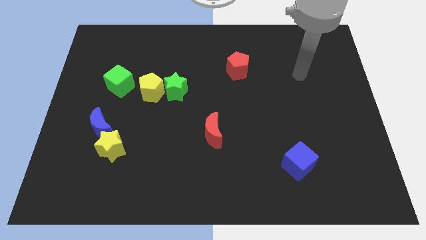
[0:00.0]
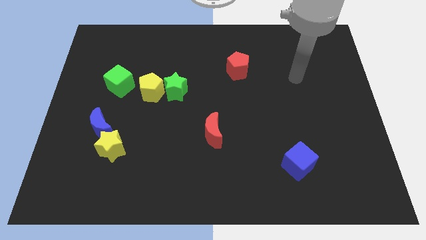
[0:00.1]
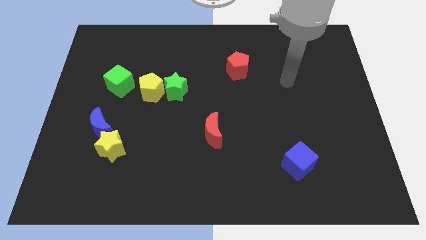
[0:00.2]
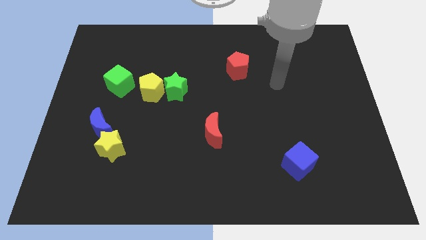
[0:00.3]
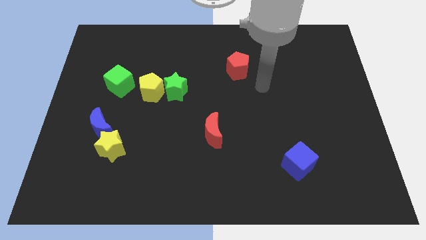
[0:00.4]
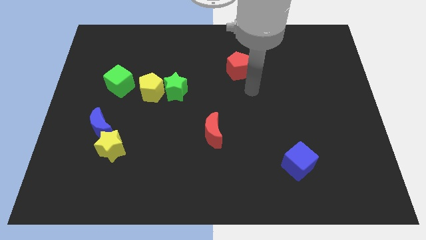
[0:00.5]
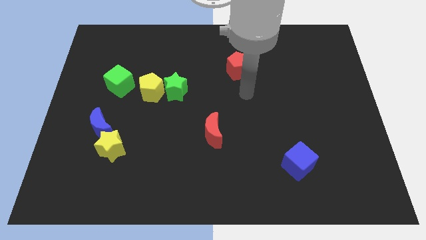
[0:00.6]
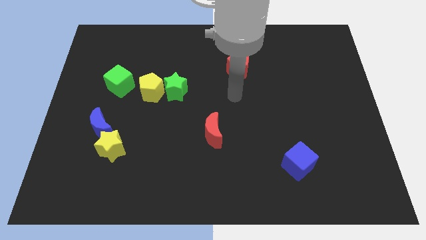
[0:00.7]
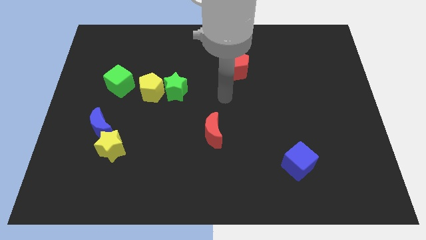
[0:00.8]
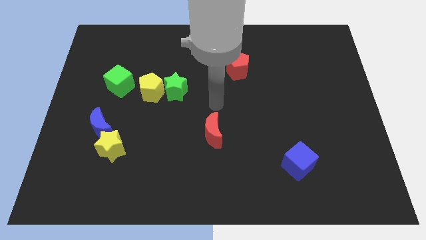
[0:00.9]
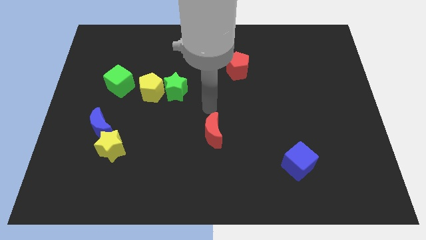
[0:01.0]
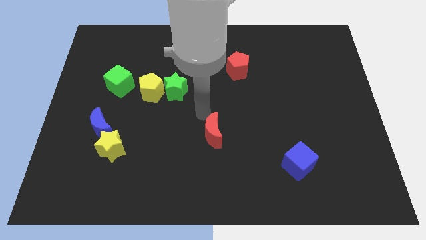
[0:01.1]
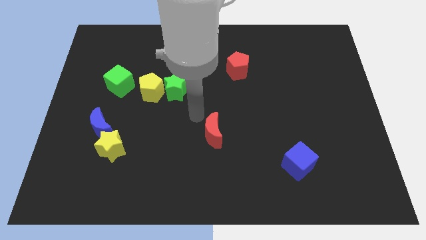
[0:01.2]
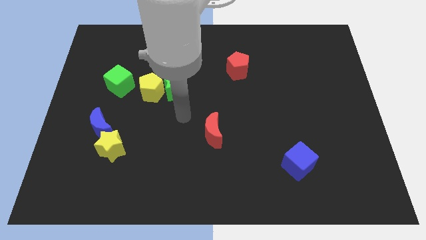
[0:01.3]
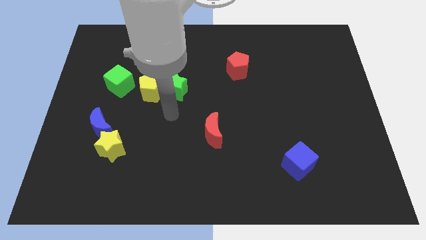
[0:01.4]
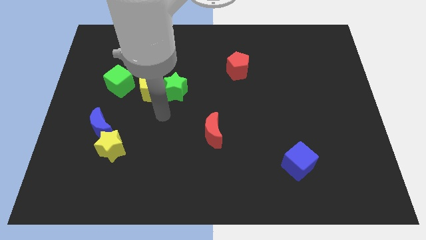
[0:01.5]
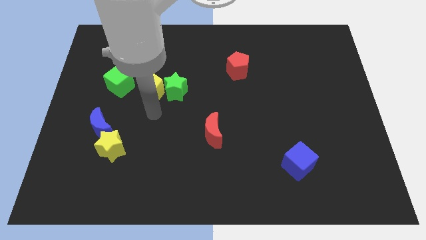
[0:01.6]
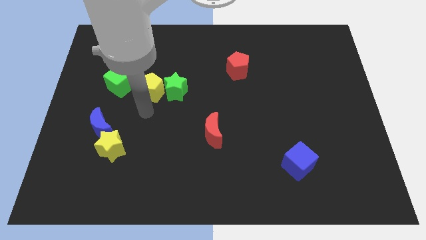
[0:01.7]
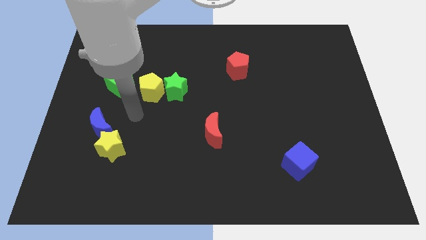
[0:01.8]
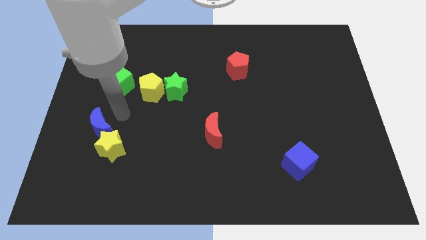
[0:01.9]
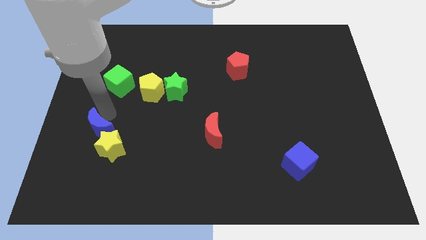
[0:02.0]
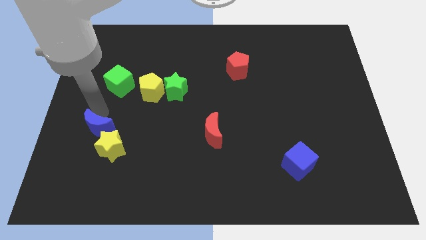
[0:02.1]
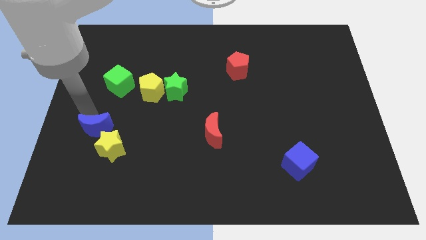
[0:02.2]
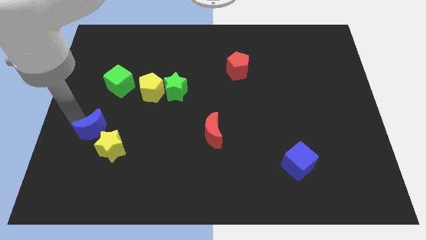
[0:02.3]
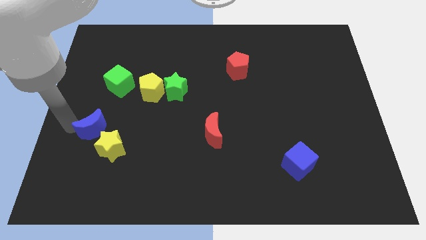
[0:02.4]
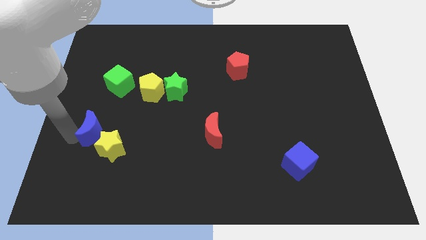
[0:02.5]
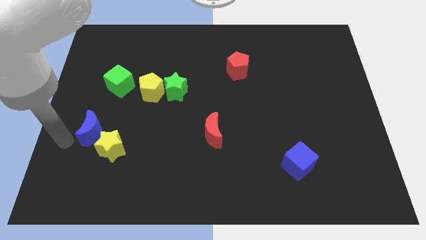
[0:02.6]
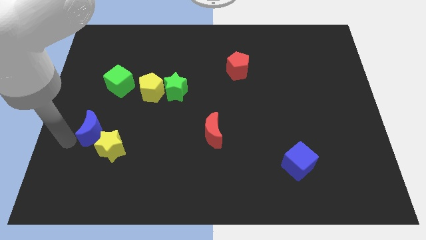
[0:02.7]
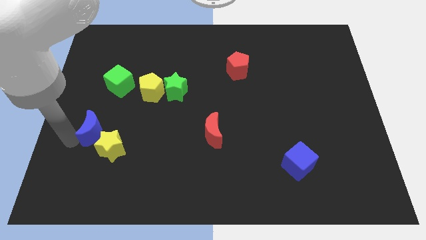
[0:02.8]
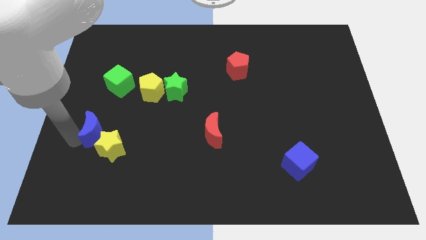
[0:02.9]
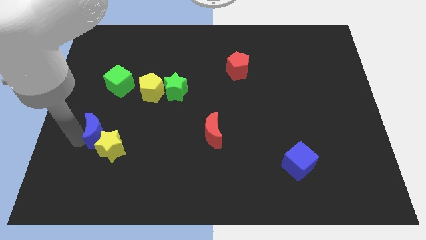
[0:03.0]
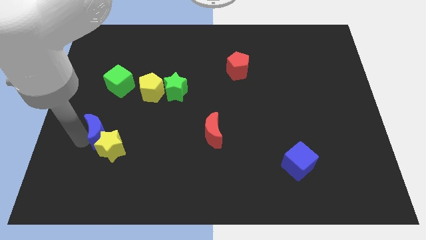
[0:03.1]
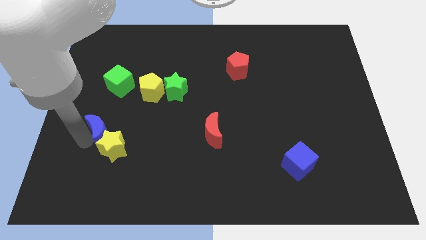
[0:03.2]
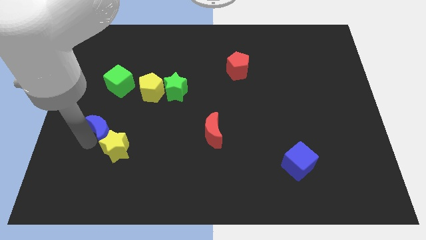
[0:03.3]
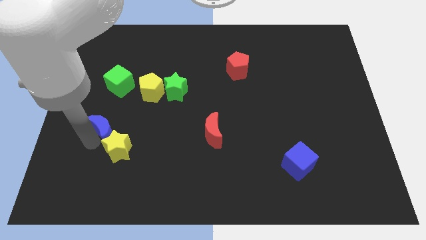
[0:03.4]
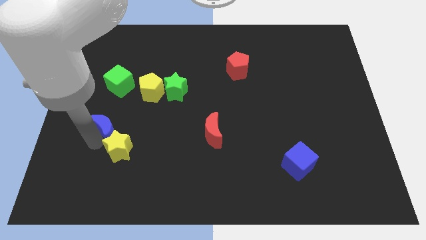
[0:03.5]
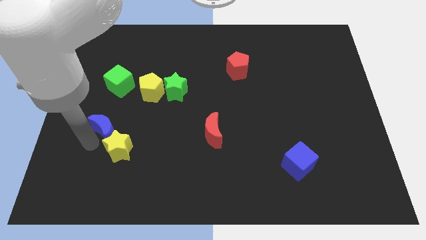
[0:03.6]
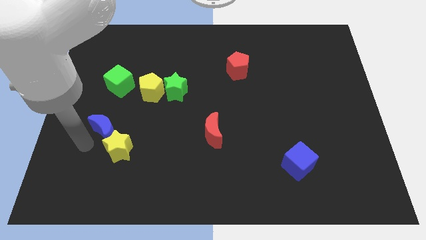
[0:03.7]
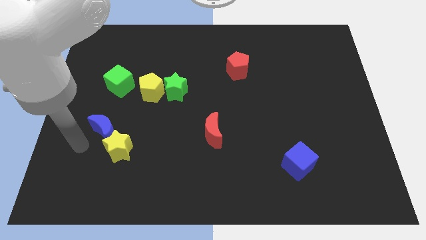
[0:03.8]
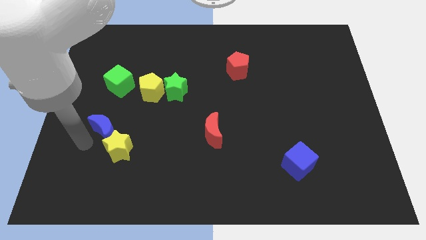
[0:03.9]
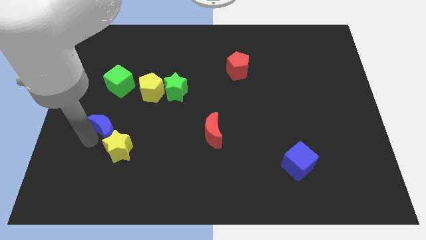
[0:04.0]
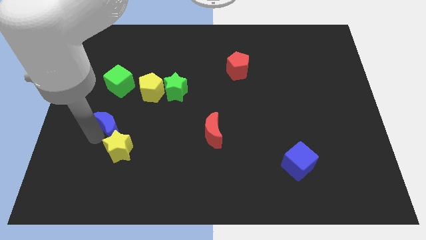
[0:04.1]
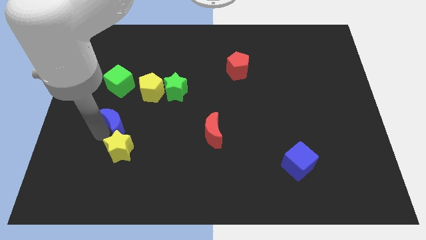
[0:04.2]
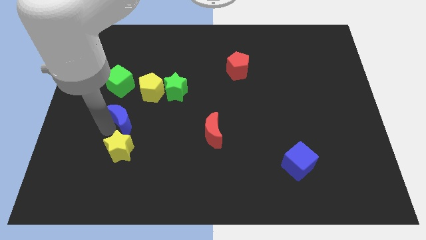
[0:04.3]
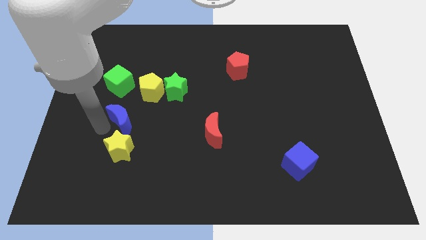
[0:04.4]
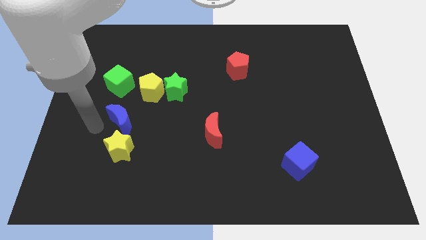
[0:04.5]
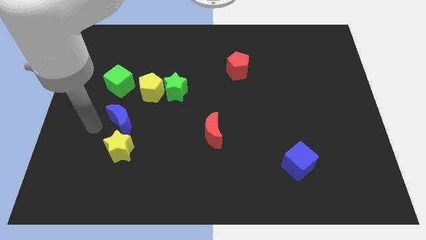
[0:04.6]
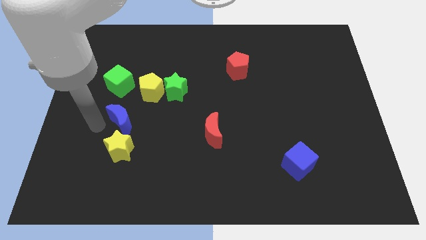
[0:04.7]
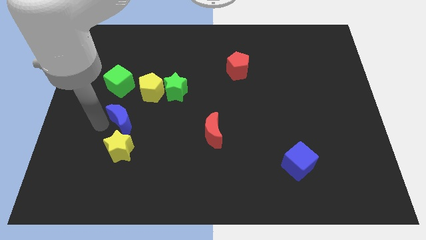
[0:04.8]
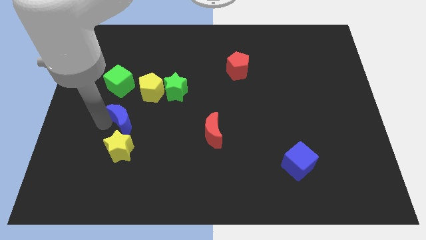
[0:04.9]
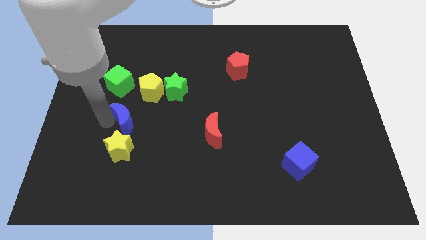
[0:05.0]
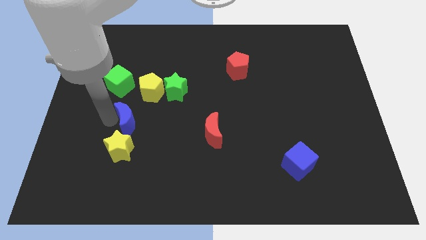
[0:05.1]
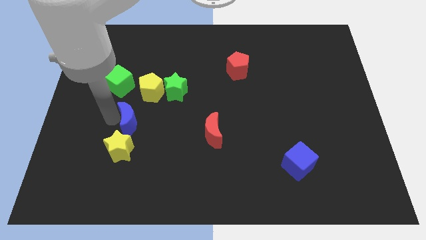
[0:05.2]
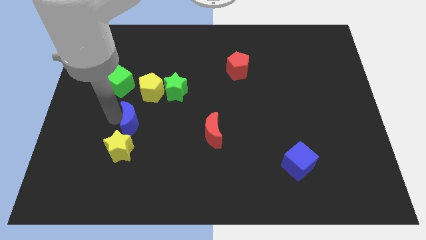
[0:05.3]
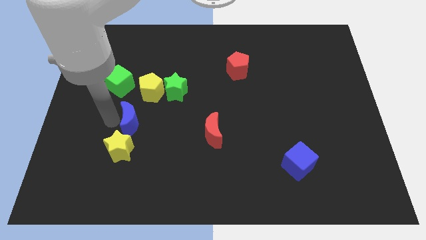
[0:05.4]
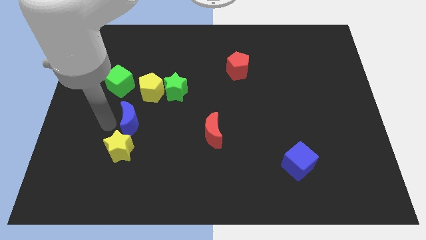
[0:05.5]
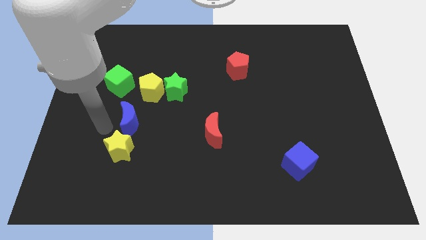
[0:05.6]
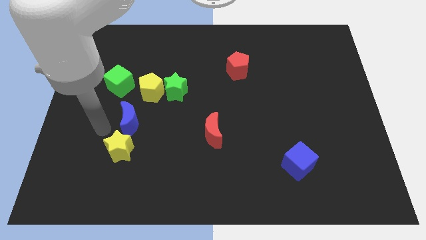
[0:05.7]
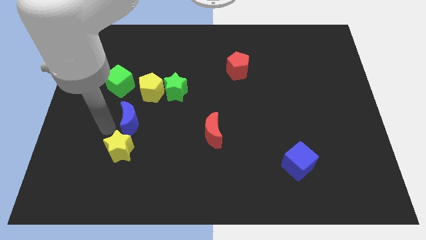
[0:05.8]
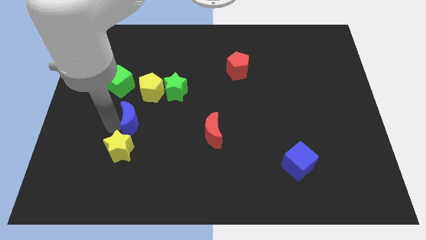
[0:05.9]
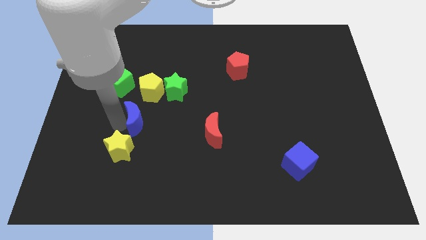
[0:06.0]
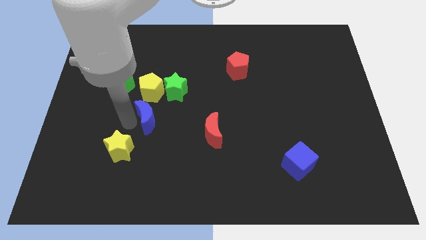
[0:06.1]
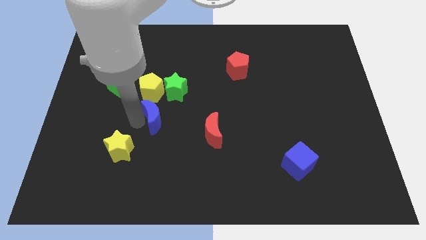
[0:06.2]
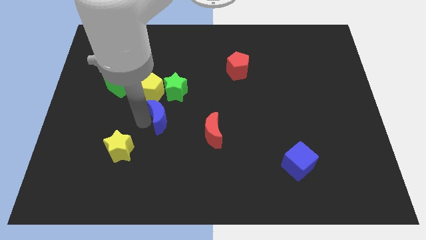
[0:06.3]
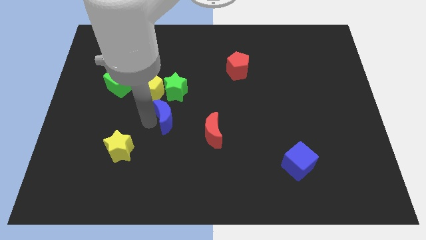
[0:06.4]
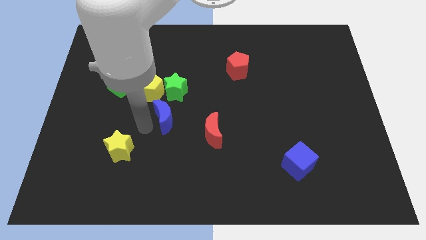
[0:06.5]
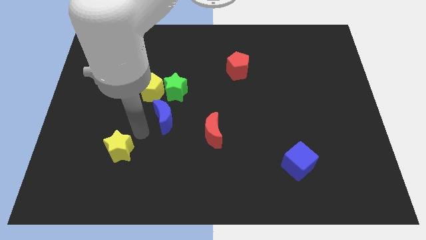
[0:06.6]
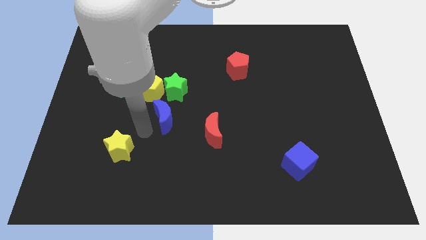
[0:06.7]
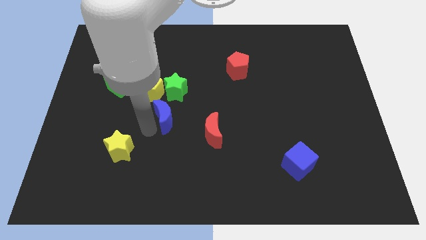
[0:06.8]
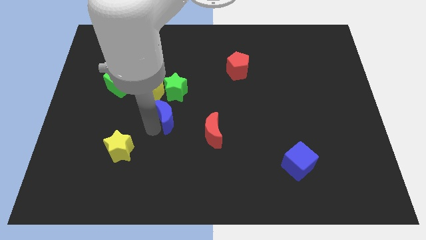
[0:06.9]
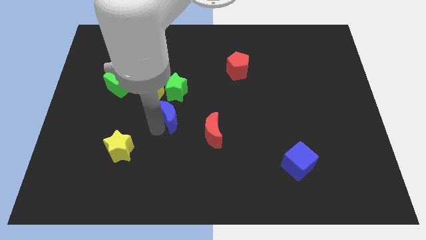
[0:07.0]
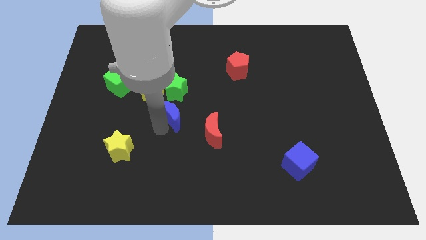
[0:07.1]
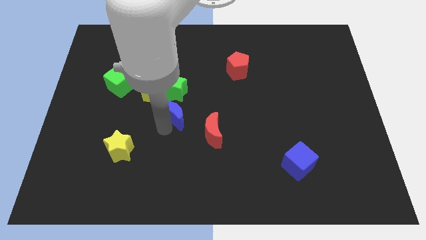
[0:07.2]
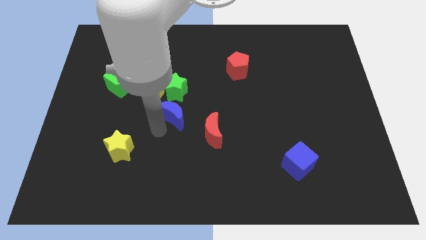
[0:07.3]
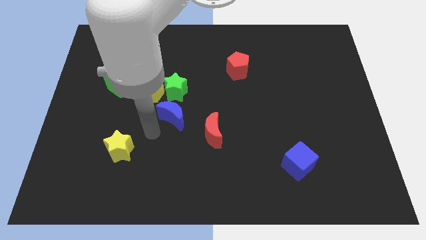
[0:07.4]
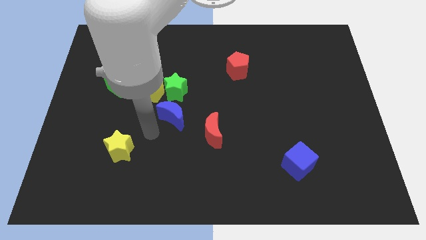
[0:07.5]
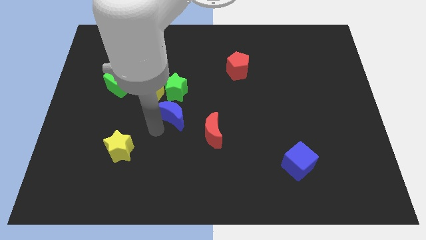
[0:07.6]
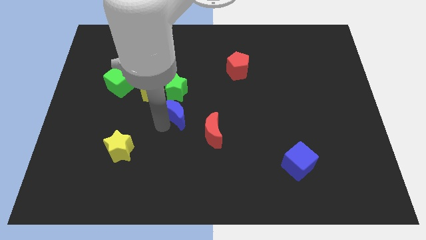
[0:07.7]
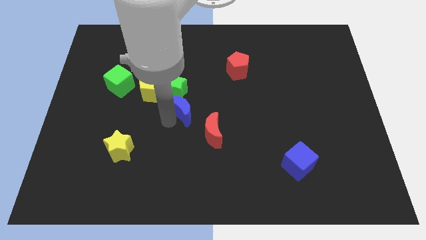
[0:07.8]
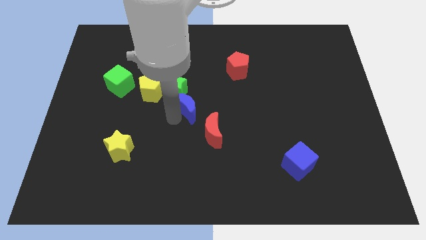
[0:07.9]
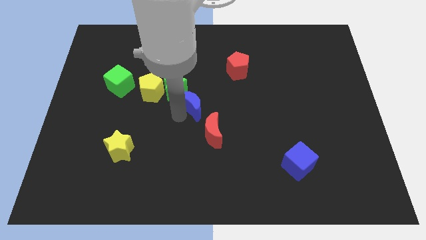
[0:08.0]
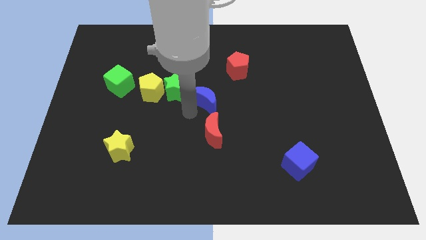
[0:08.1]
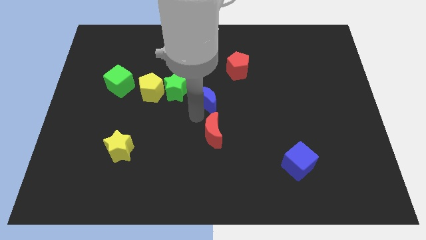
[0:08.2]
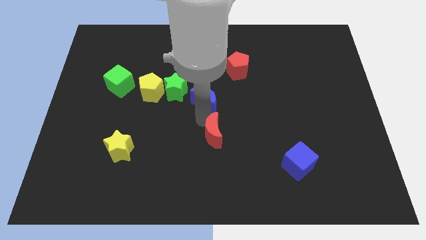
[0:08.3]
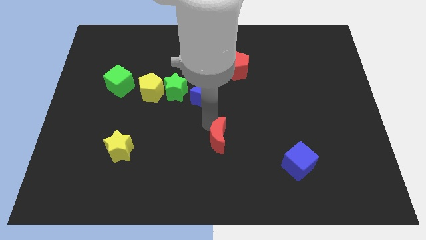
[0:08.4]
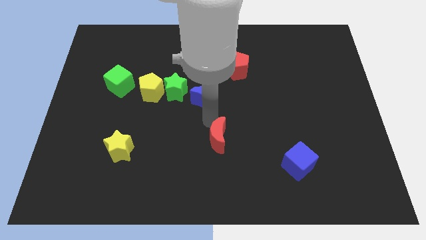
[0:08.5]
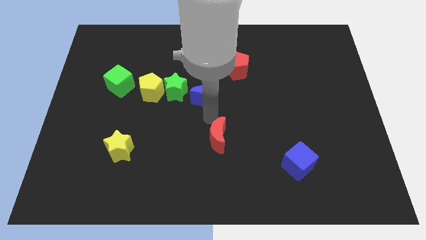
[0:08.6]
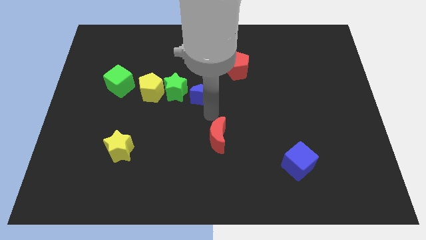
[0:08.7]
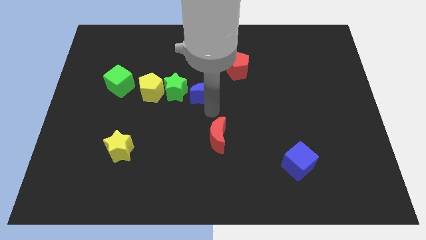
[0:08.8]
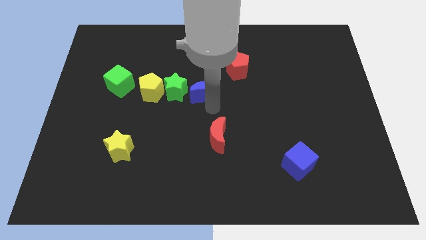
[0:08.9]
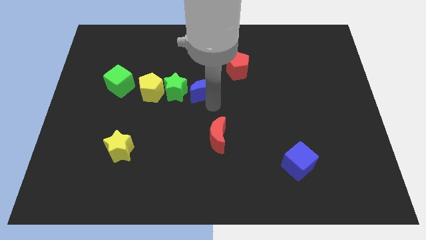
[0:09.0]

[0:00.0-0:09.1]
push the blue moon up and to the right diagonally
